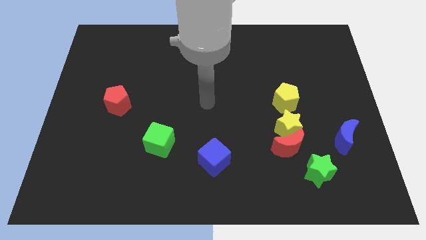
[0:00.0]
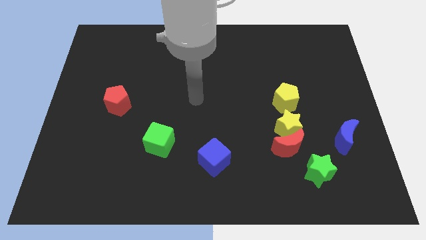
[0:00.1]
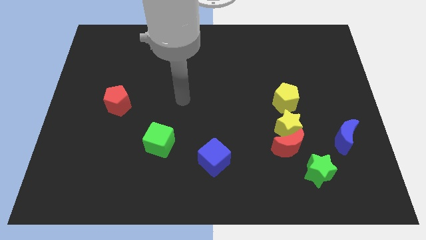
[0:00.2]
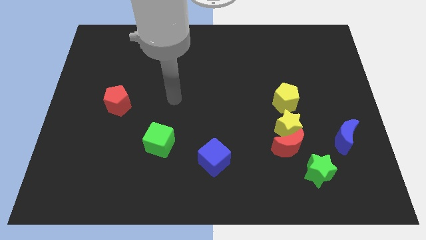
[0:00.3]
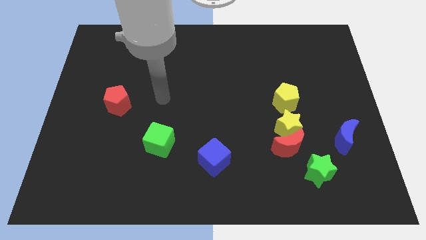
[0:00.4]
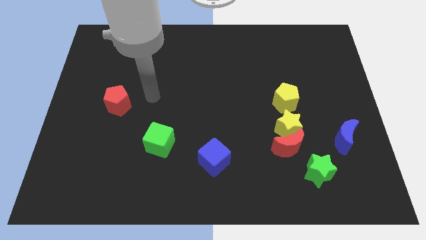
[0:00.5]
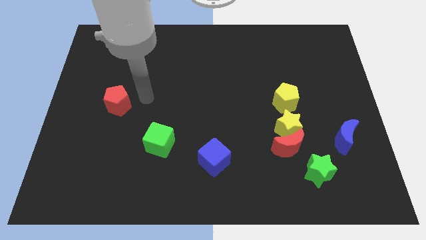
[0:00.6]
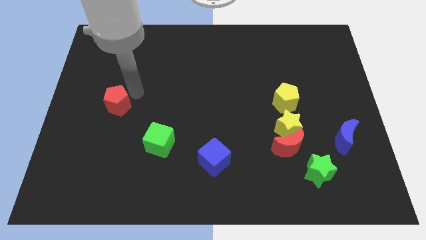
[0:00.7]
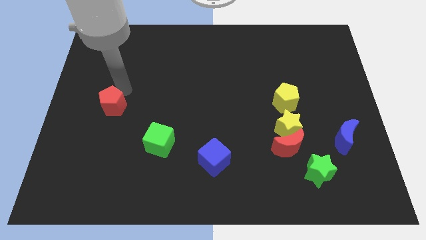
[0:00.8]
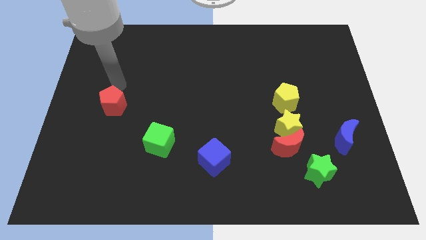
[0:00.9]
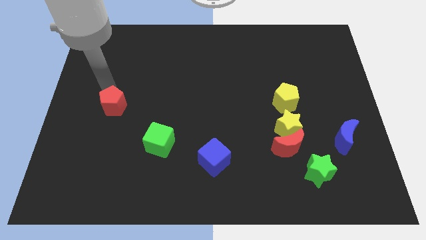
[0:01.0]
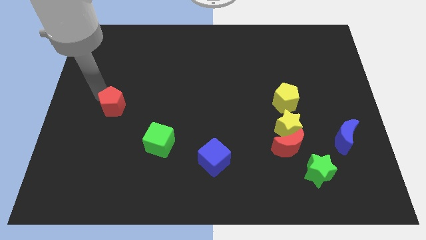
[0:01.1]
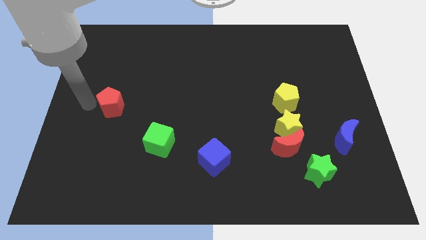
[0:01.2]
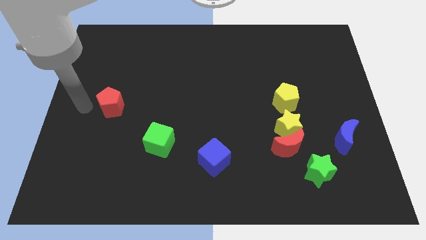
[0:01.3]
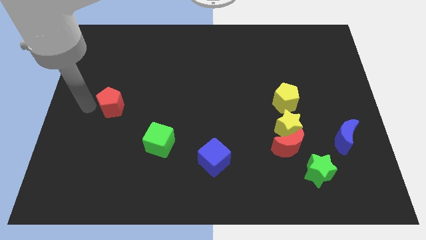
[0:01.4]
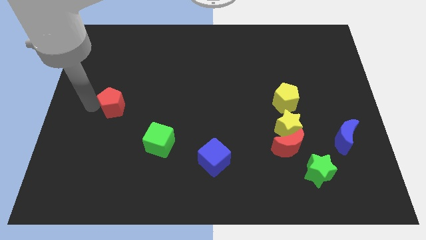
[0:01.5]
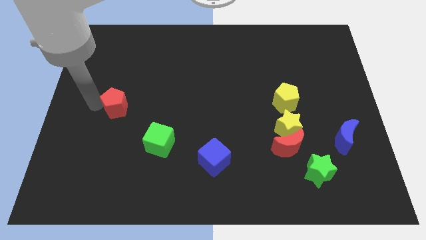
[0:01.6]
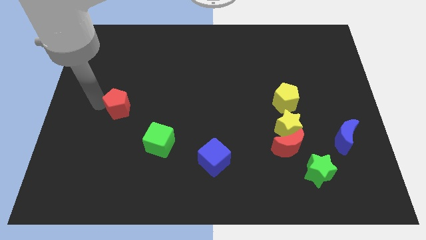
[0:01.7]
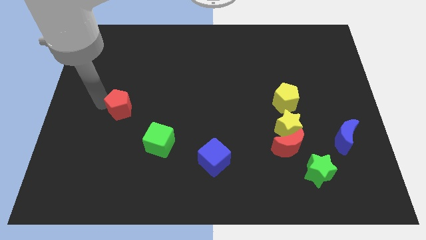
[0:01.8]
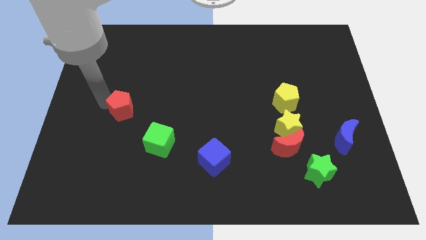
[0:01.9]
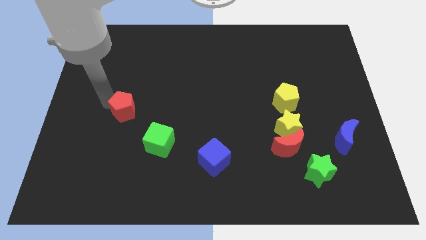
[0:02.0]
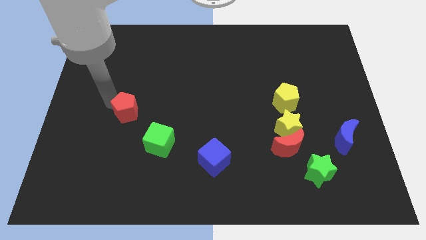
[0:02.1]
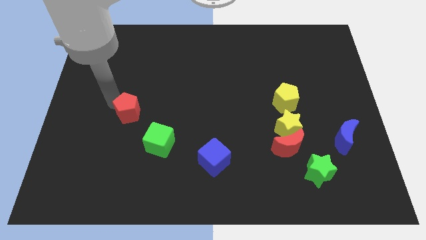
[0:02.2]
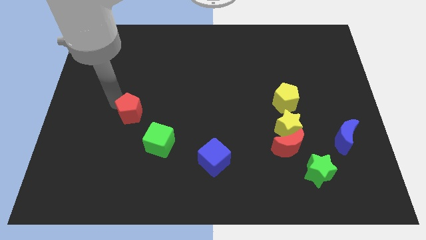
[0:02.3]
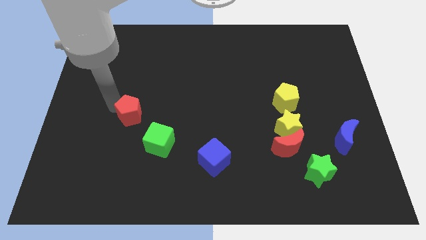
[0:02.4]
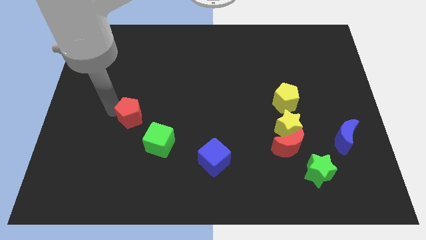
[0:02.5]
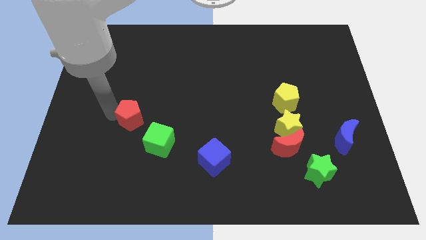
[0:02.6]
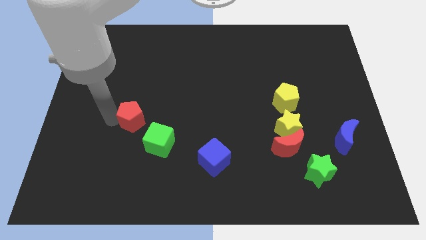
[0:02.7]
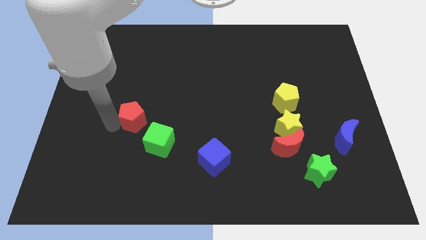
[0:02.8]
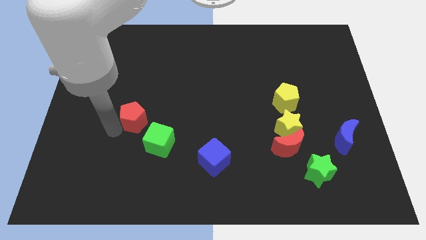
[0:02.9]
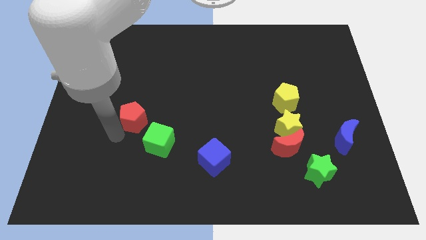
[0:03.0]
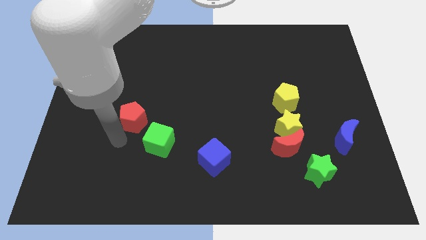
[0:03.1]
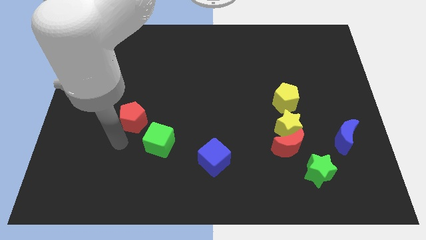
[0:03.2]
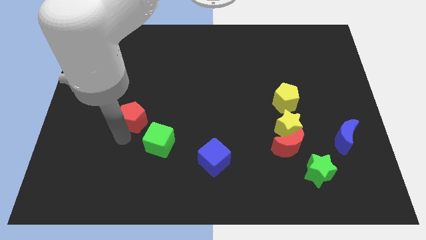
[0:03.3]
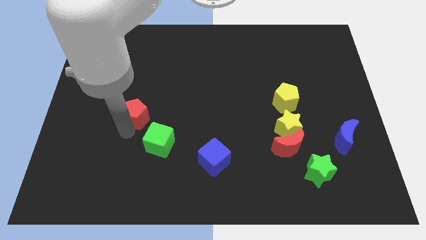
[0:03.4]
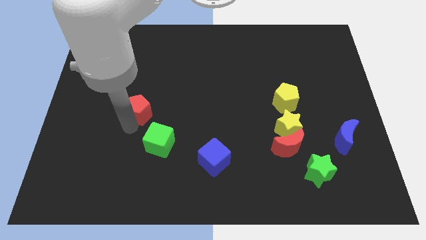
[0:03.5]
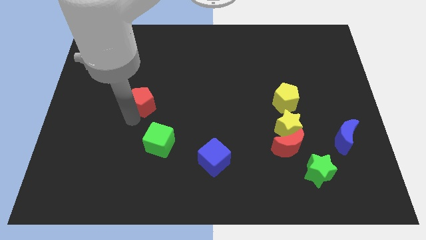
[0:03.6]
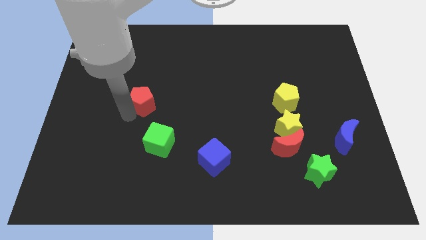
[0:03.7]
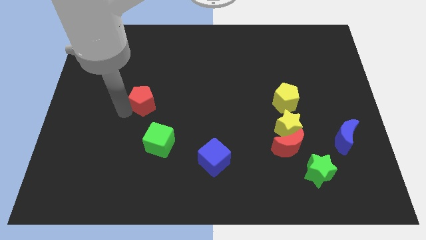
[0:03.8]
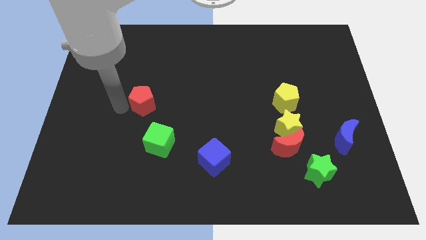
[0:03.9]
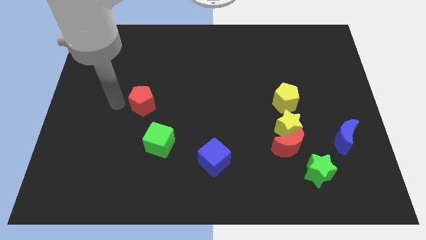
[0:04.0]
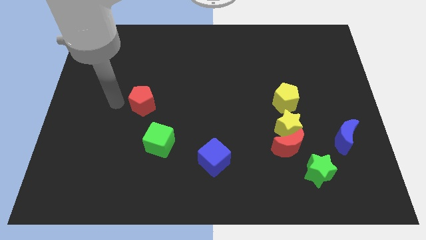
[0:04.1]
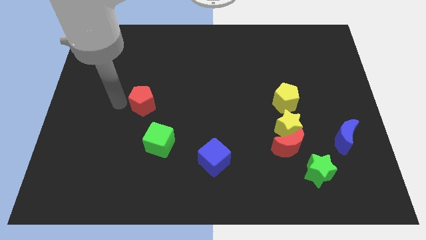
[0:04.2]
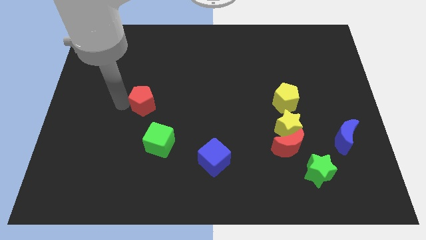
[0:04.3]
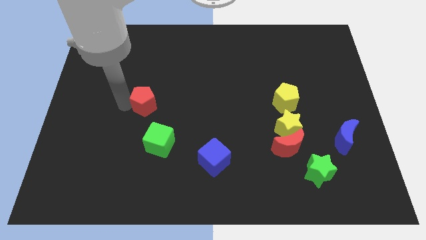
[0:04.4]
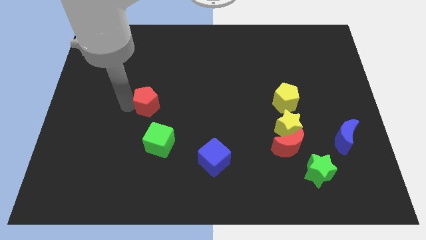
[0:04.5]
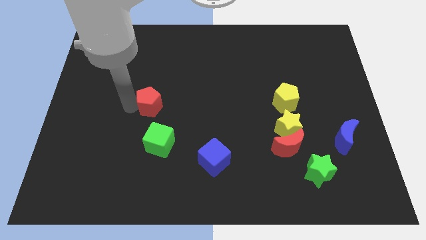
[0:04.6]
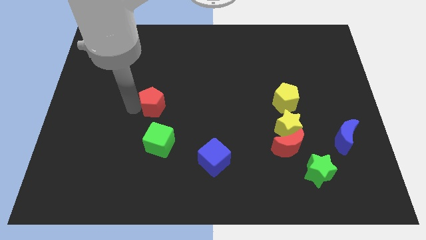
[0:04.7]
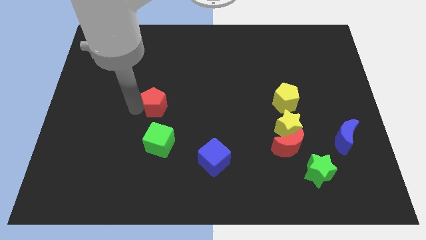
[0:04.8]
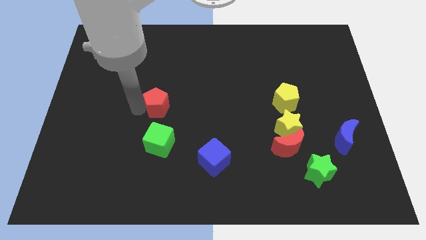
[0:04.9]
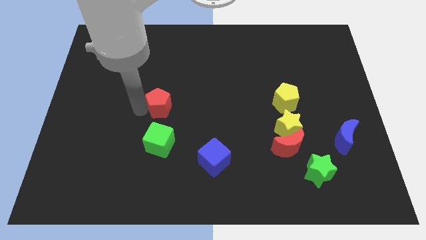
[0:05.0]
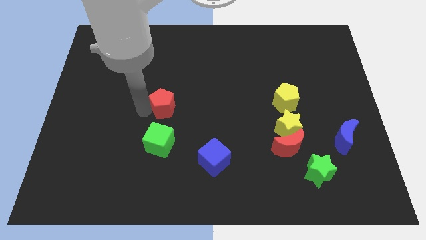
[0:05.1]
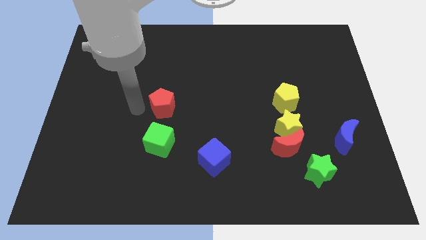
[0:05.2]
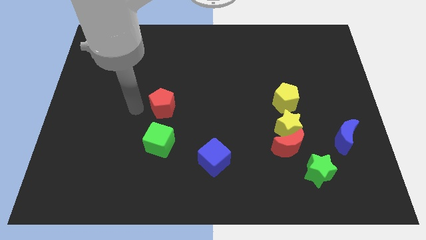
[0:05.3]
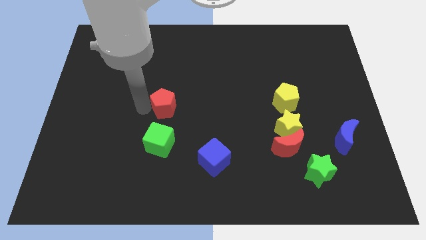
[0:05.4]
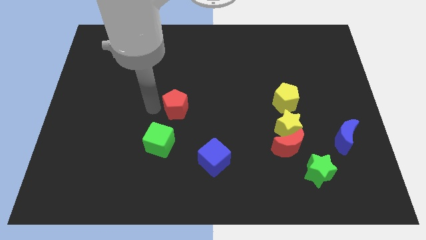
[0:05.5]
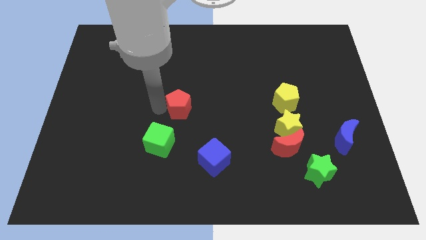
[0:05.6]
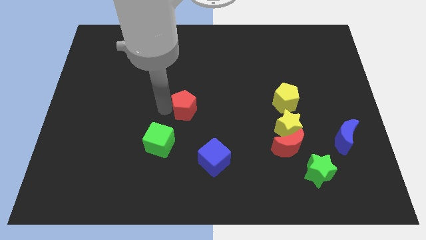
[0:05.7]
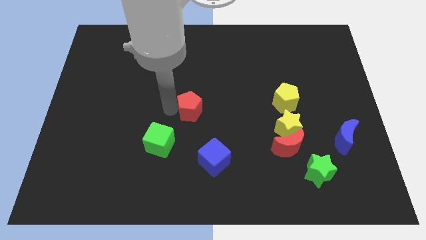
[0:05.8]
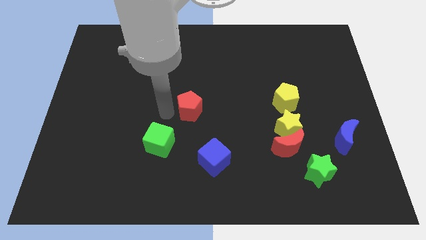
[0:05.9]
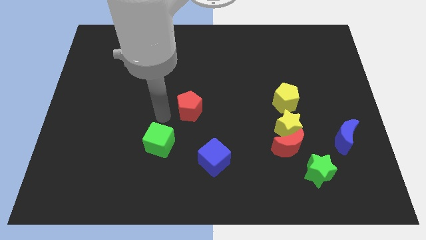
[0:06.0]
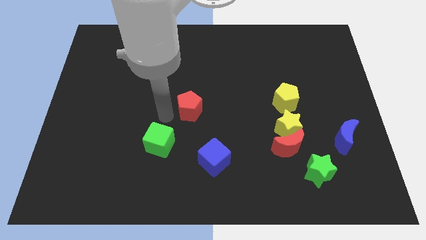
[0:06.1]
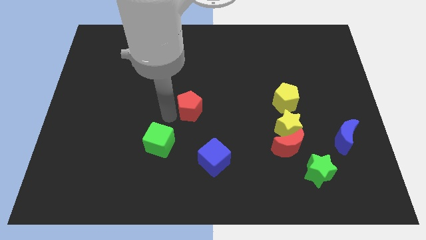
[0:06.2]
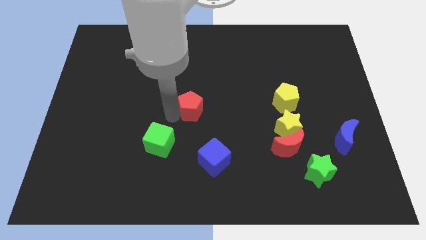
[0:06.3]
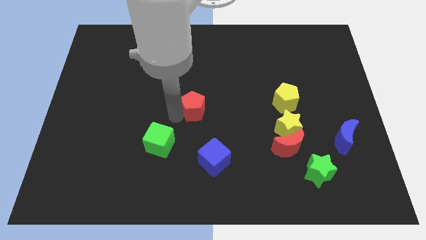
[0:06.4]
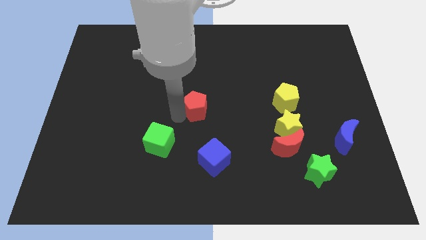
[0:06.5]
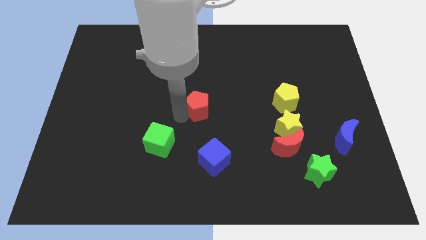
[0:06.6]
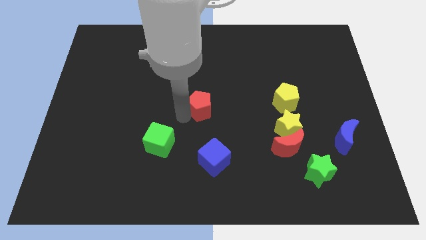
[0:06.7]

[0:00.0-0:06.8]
slide the red pentagon to the right

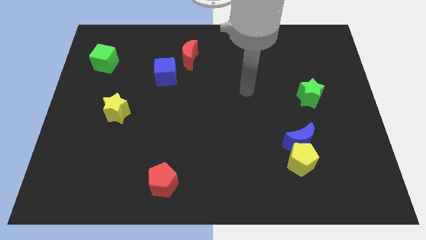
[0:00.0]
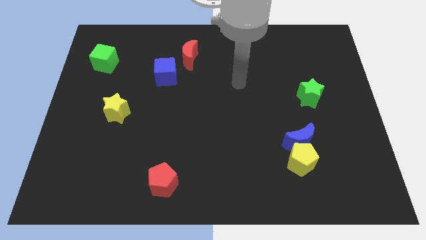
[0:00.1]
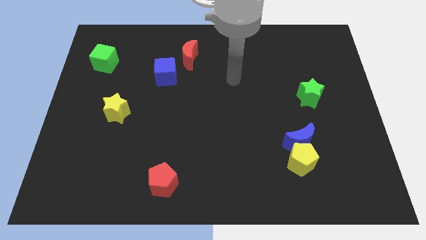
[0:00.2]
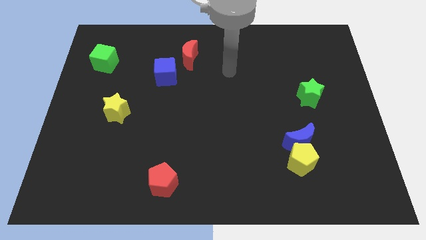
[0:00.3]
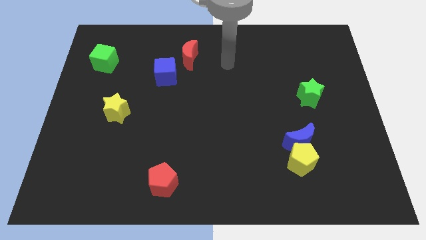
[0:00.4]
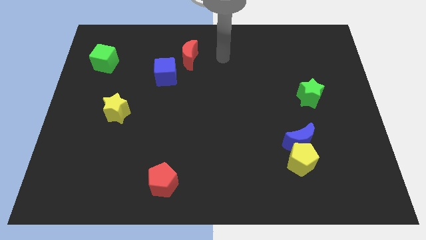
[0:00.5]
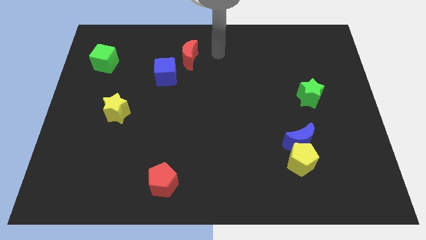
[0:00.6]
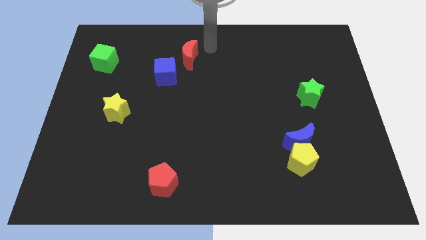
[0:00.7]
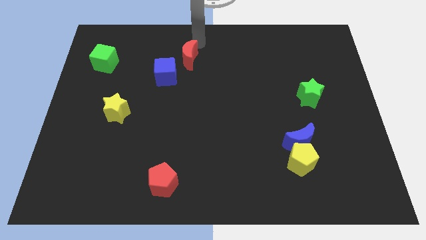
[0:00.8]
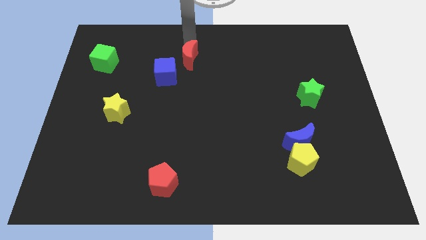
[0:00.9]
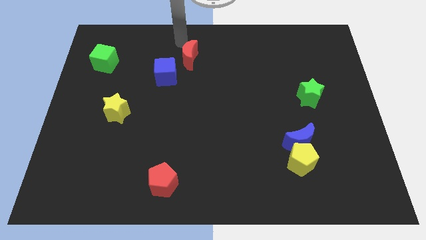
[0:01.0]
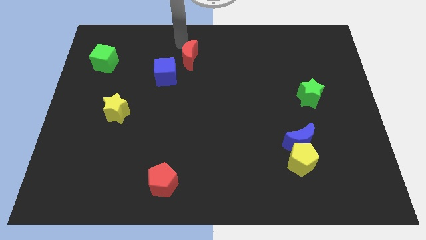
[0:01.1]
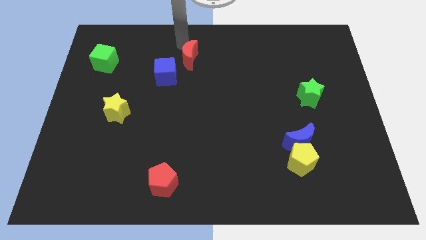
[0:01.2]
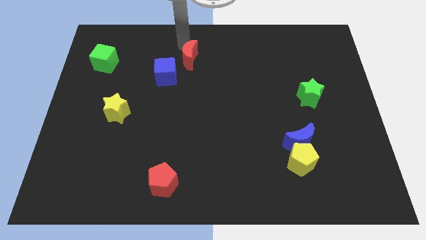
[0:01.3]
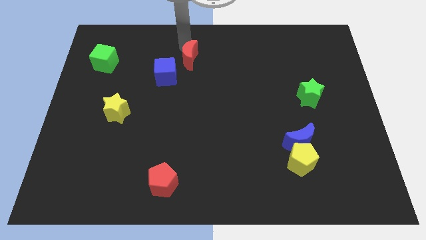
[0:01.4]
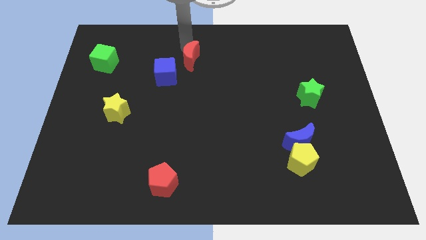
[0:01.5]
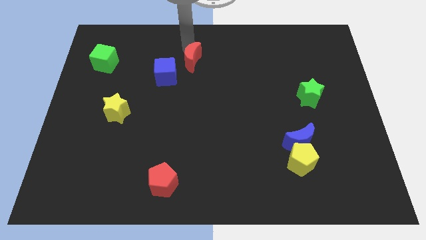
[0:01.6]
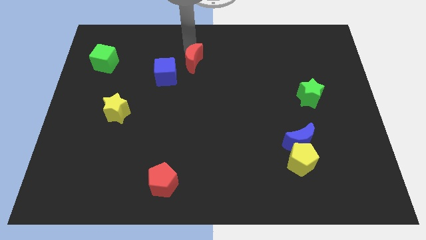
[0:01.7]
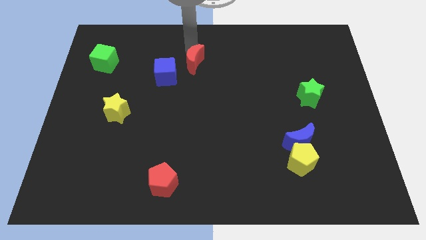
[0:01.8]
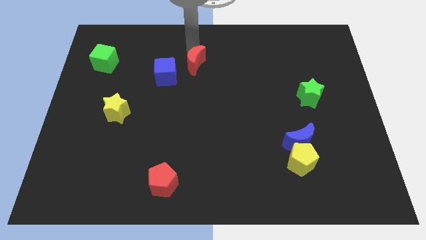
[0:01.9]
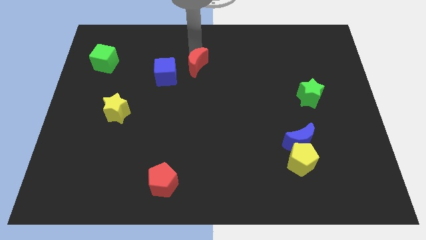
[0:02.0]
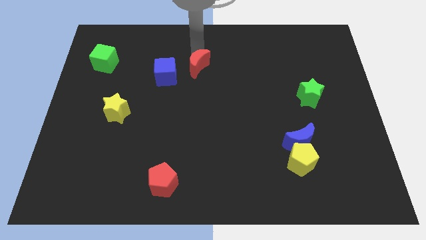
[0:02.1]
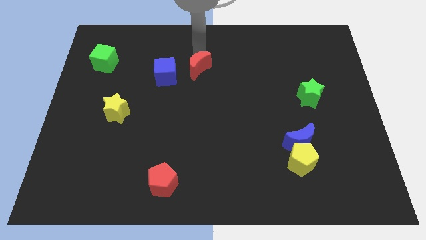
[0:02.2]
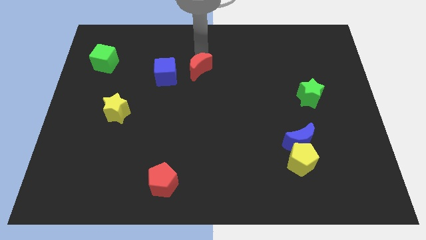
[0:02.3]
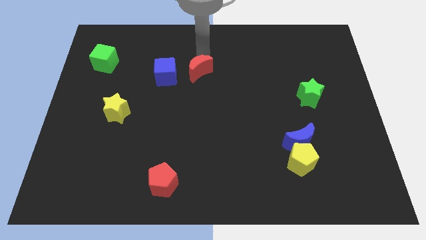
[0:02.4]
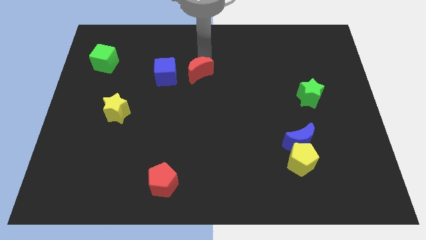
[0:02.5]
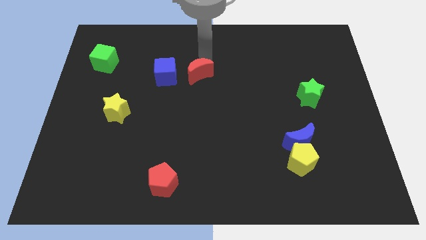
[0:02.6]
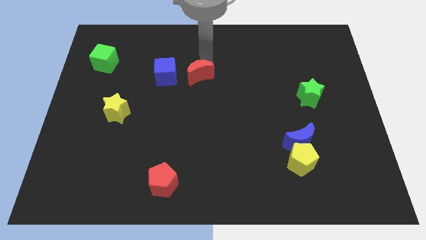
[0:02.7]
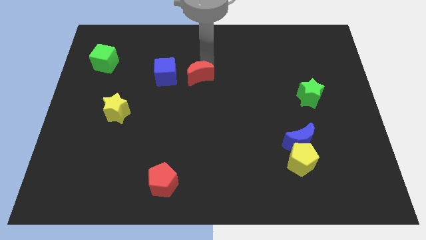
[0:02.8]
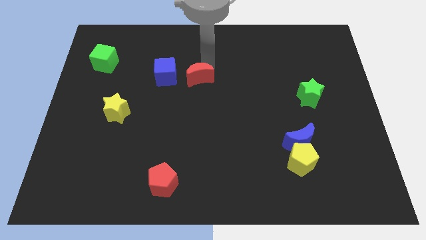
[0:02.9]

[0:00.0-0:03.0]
push the red moon a bit down
